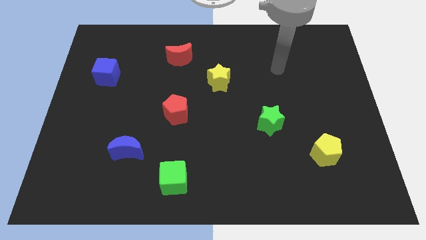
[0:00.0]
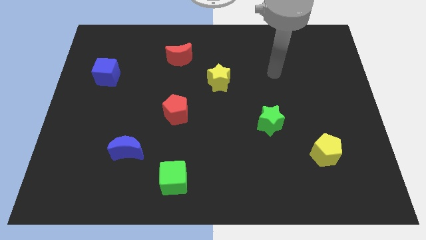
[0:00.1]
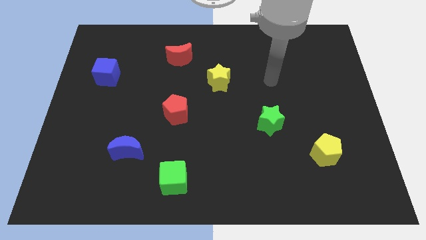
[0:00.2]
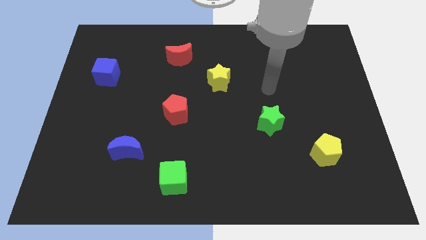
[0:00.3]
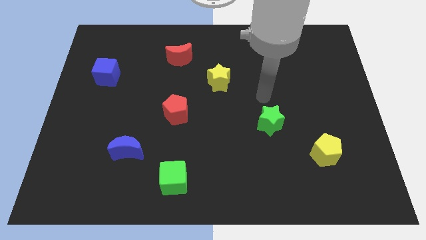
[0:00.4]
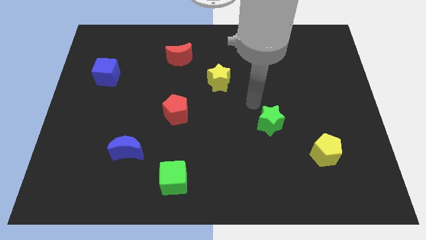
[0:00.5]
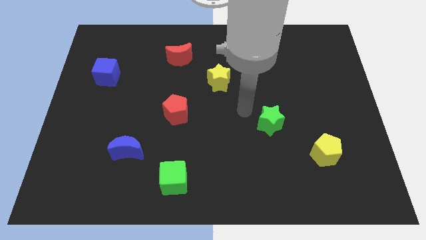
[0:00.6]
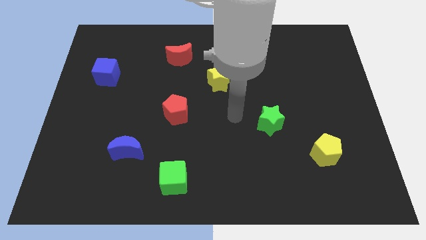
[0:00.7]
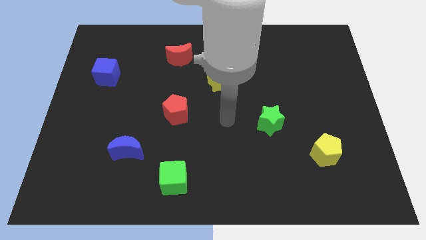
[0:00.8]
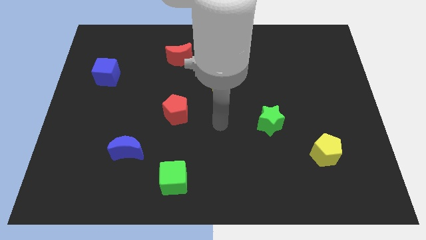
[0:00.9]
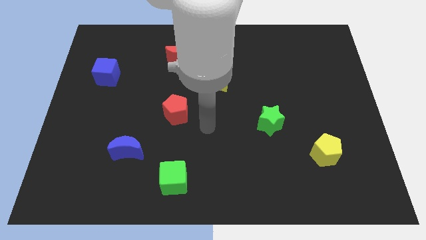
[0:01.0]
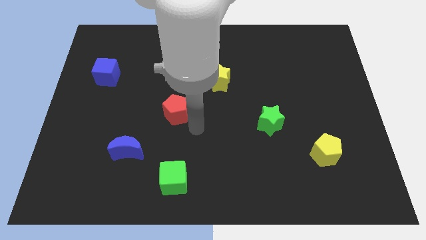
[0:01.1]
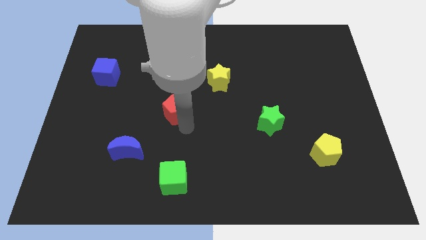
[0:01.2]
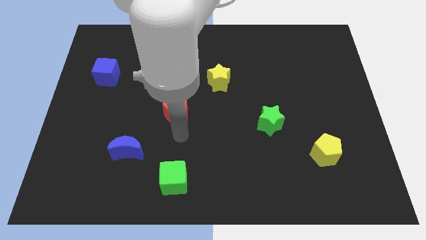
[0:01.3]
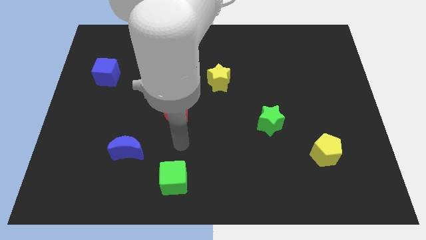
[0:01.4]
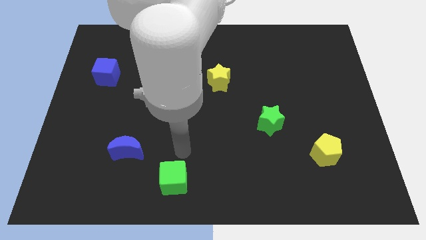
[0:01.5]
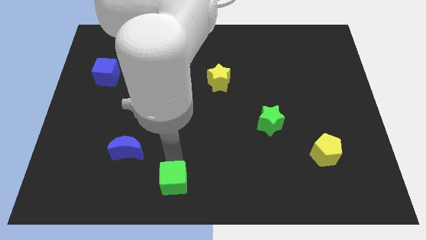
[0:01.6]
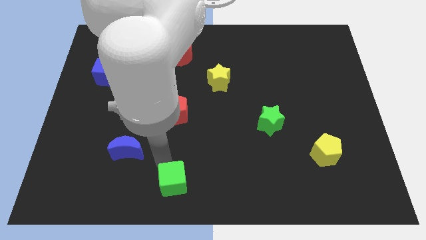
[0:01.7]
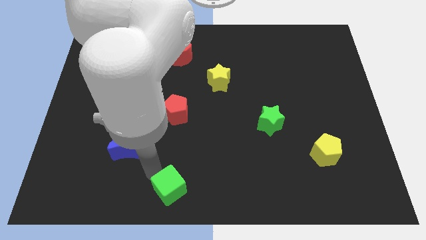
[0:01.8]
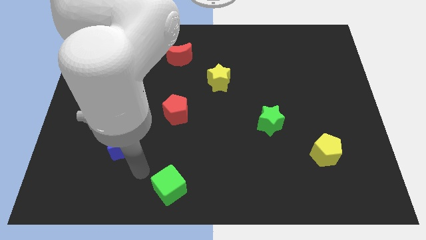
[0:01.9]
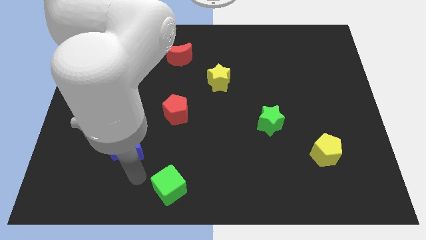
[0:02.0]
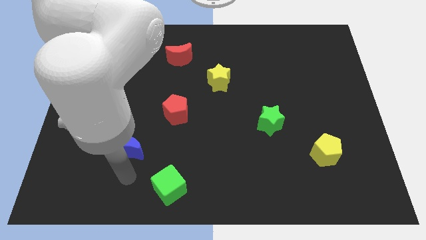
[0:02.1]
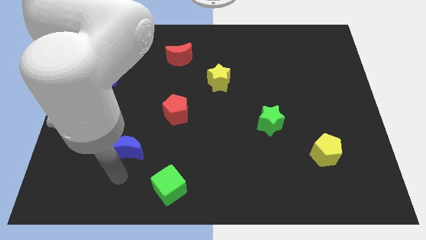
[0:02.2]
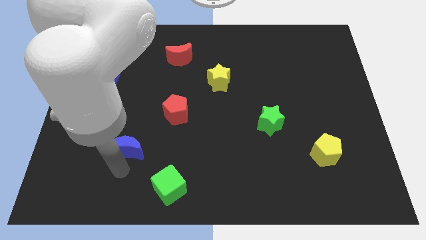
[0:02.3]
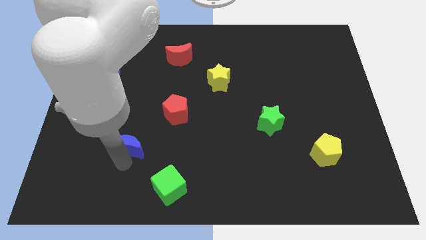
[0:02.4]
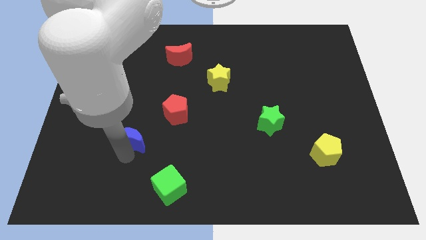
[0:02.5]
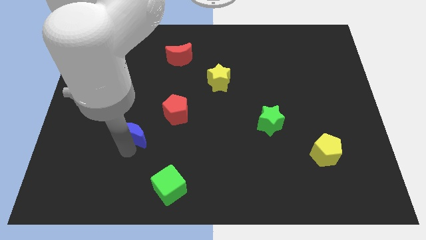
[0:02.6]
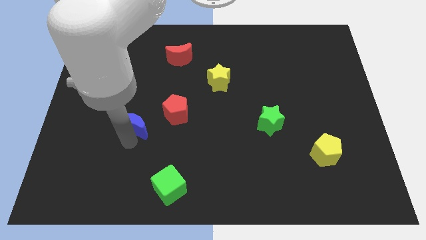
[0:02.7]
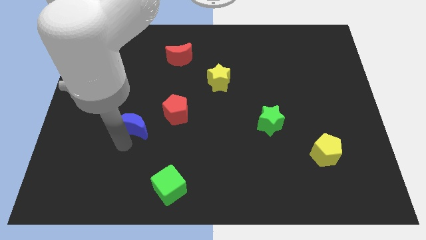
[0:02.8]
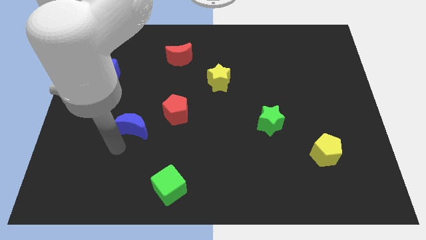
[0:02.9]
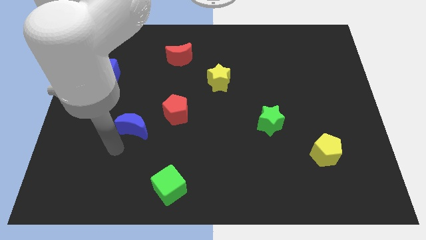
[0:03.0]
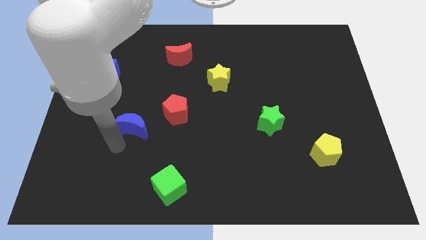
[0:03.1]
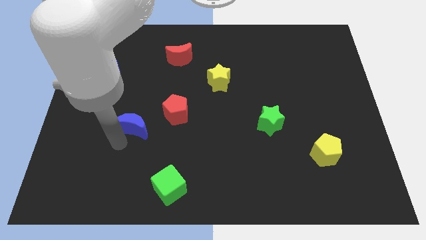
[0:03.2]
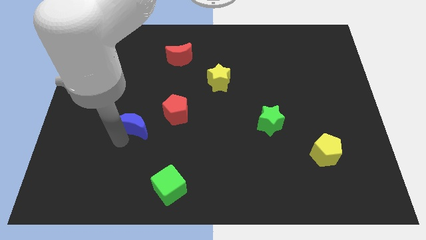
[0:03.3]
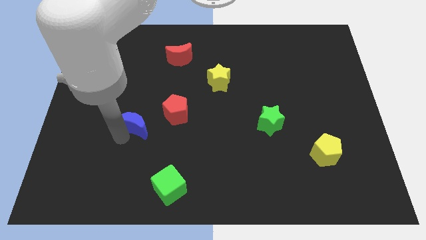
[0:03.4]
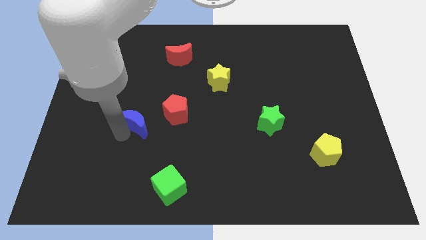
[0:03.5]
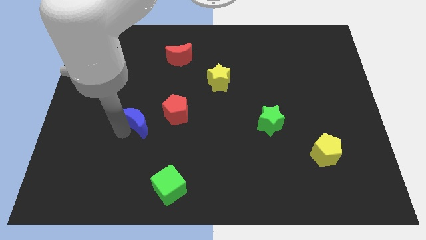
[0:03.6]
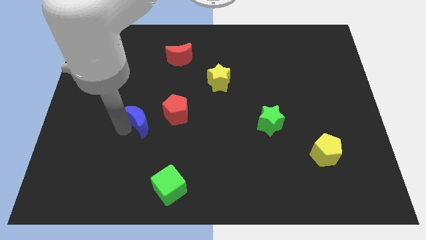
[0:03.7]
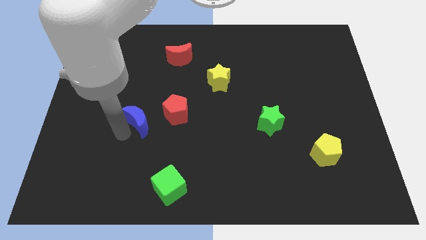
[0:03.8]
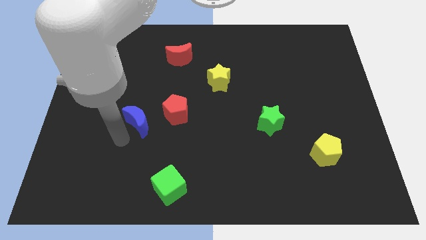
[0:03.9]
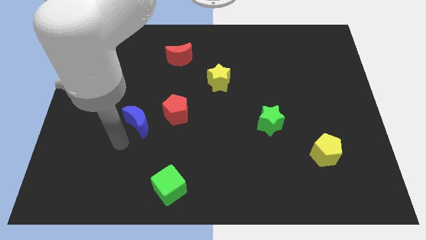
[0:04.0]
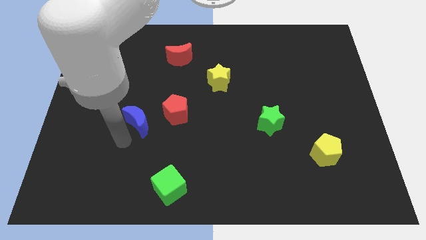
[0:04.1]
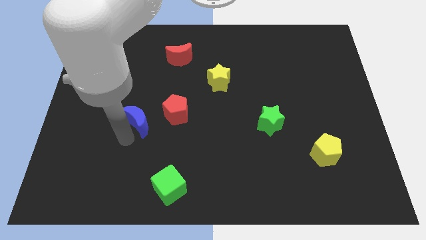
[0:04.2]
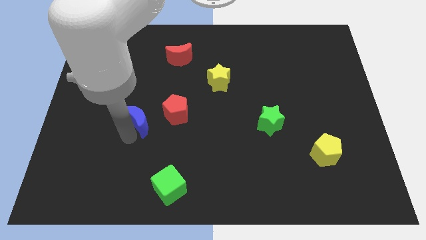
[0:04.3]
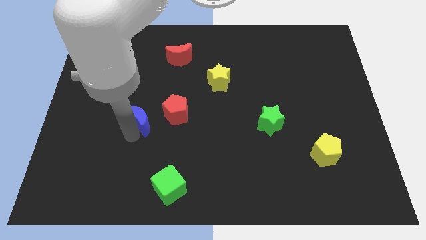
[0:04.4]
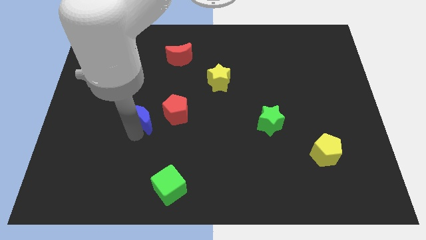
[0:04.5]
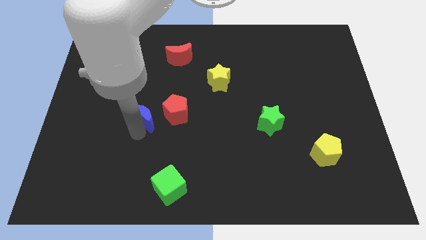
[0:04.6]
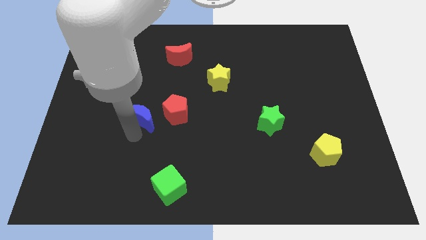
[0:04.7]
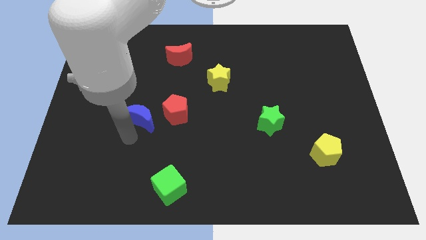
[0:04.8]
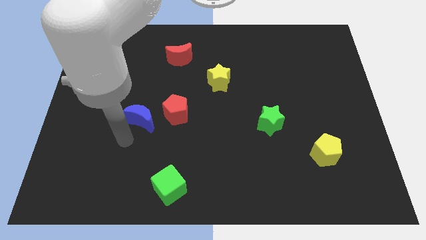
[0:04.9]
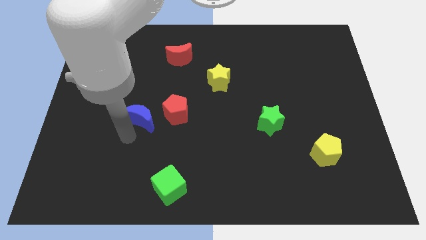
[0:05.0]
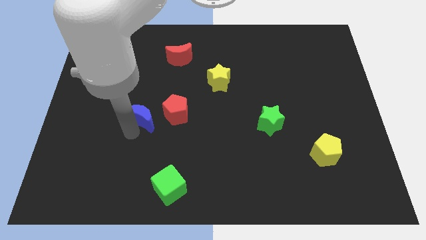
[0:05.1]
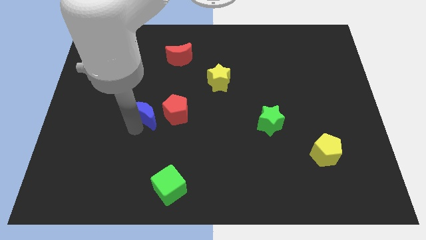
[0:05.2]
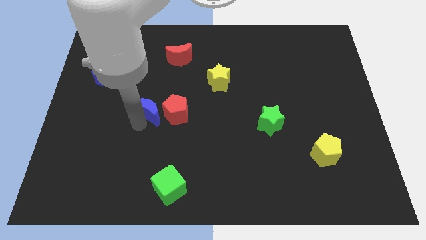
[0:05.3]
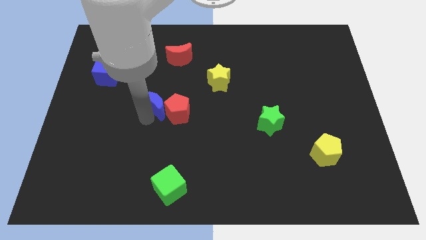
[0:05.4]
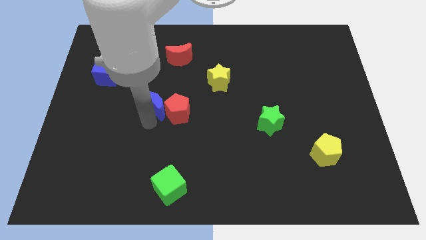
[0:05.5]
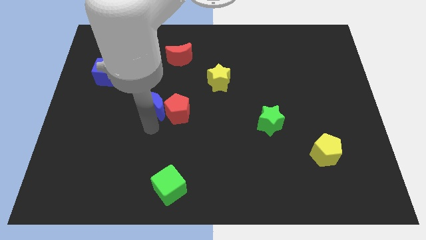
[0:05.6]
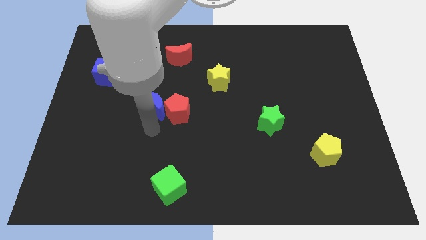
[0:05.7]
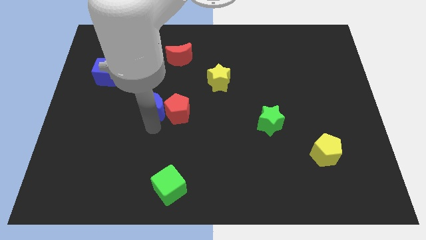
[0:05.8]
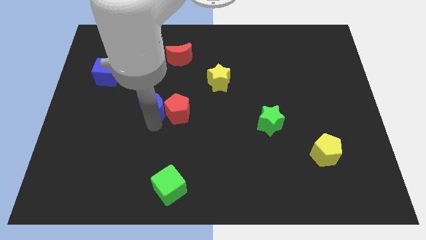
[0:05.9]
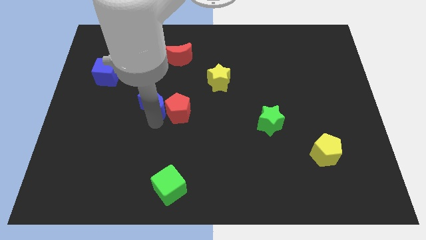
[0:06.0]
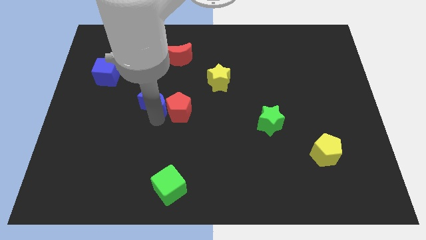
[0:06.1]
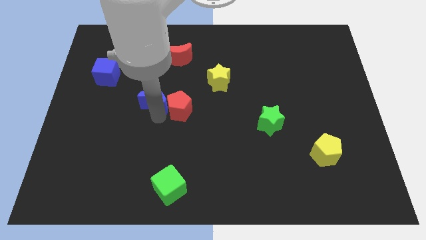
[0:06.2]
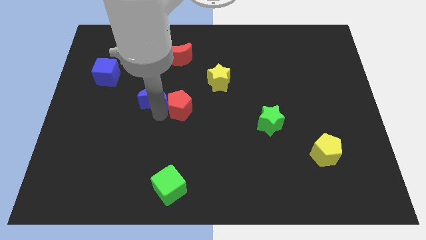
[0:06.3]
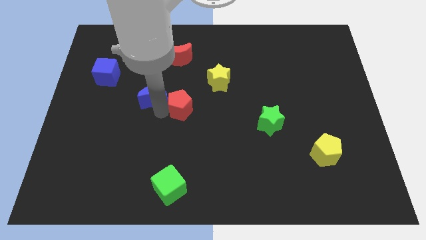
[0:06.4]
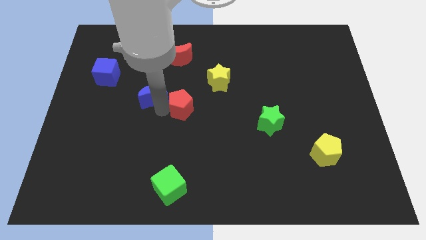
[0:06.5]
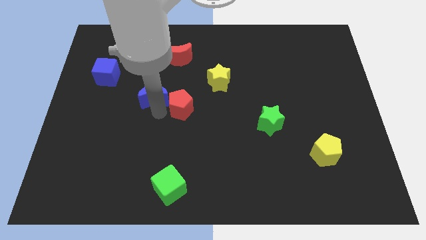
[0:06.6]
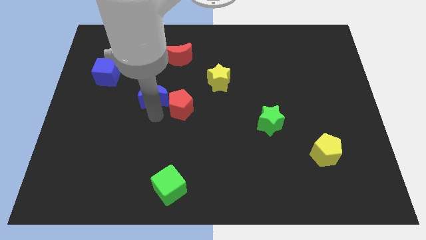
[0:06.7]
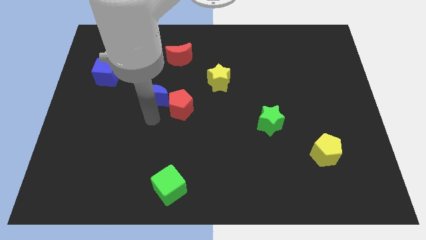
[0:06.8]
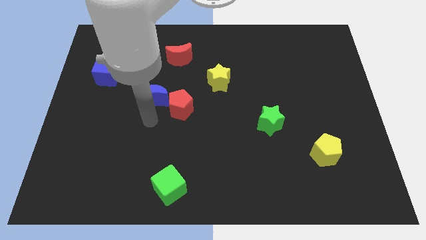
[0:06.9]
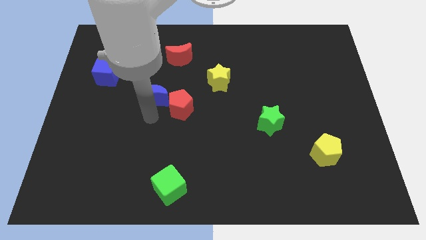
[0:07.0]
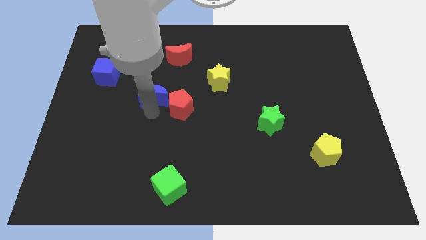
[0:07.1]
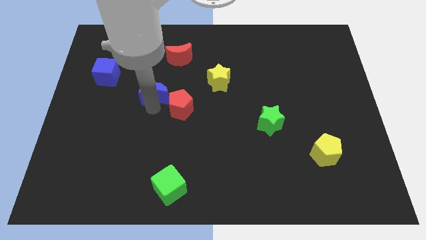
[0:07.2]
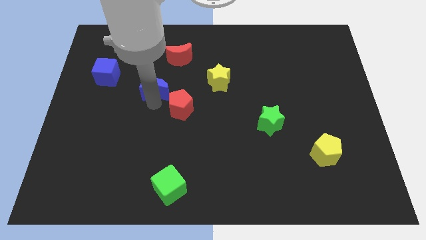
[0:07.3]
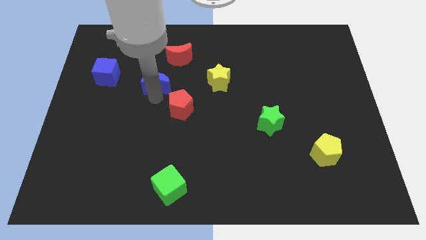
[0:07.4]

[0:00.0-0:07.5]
slide the blue moon to the bottom left of the red moon
